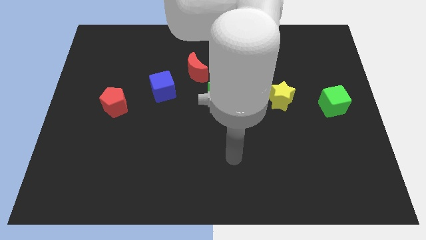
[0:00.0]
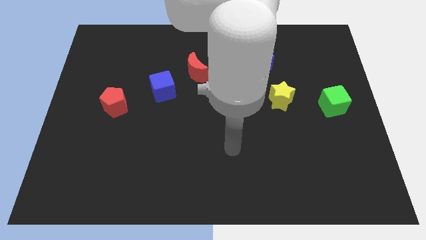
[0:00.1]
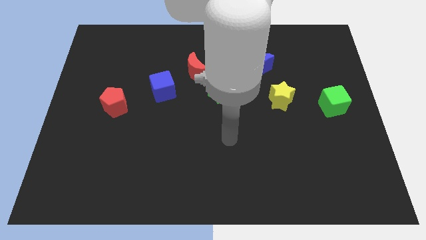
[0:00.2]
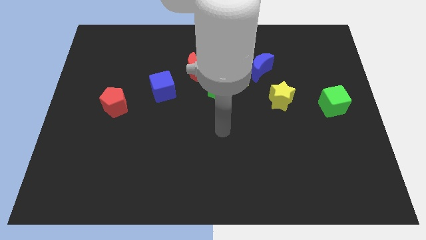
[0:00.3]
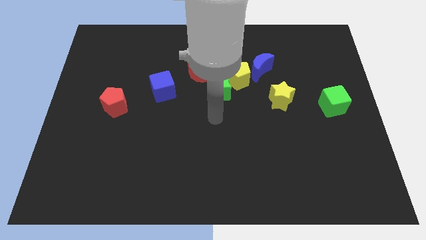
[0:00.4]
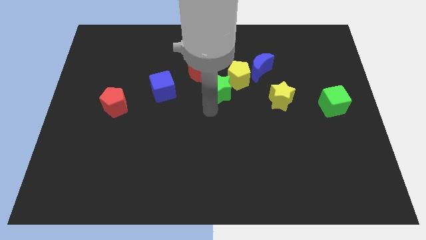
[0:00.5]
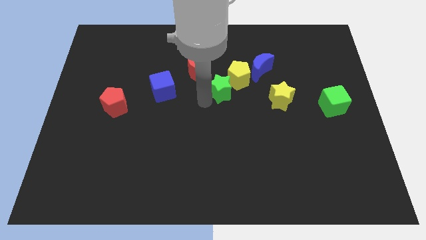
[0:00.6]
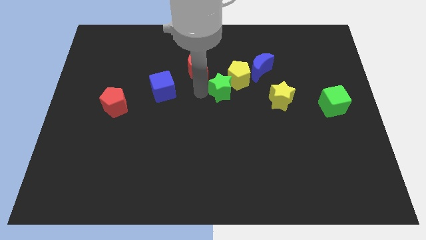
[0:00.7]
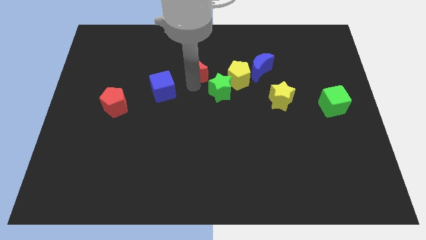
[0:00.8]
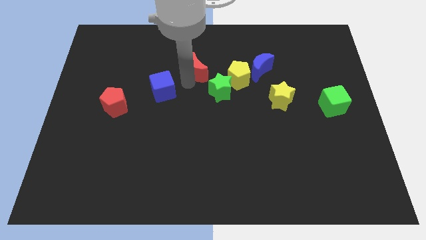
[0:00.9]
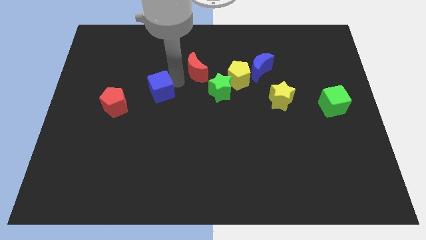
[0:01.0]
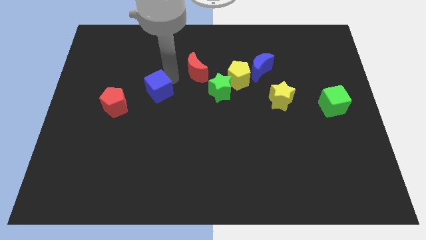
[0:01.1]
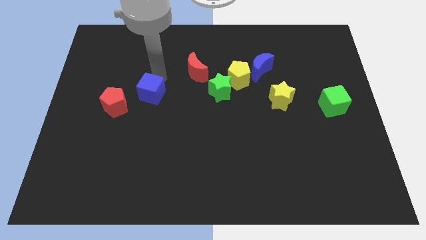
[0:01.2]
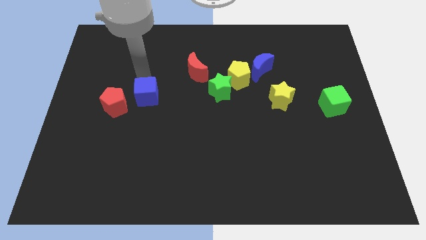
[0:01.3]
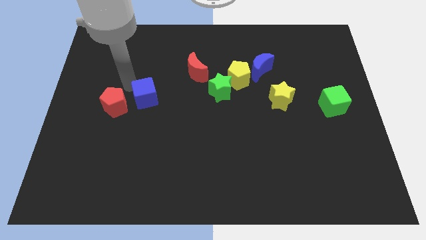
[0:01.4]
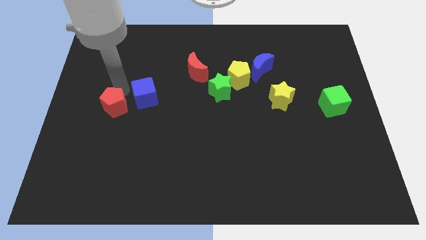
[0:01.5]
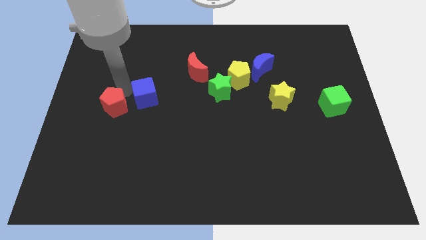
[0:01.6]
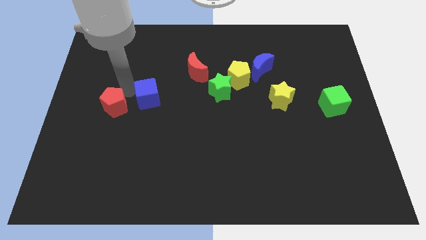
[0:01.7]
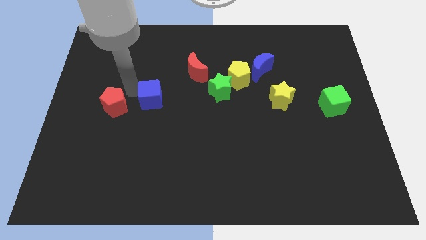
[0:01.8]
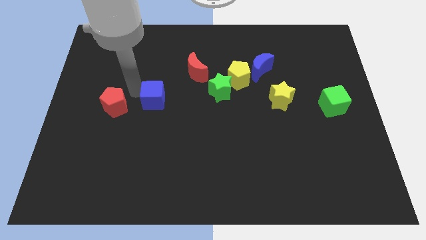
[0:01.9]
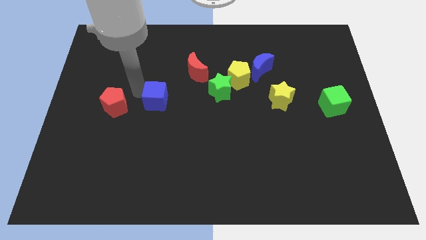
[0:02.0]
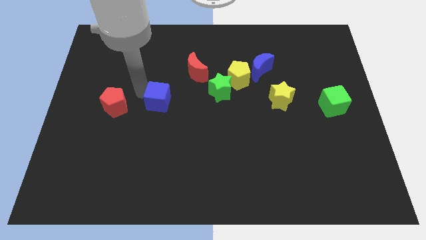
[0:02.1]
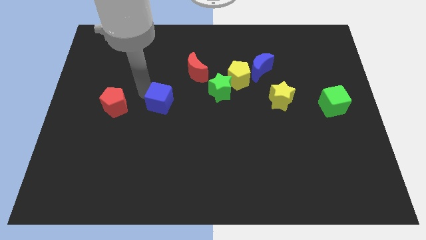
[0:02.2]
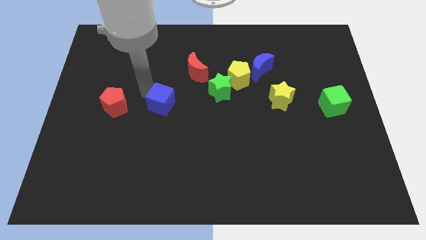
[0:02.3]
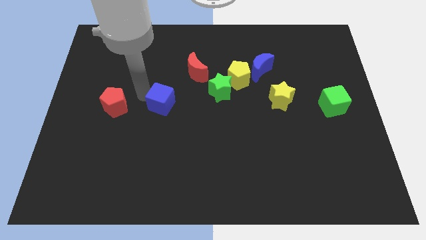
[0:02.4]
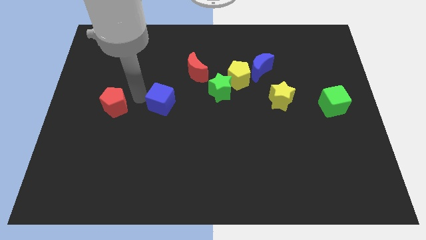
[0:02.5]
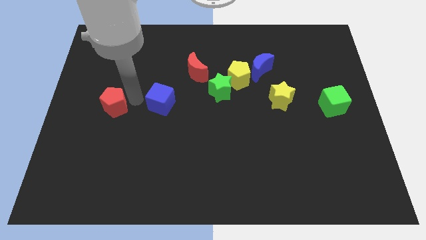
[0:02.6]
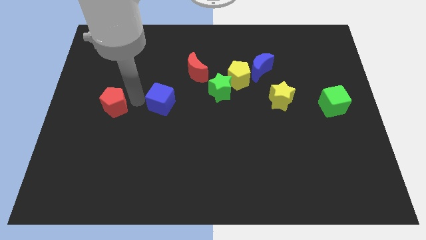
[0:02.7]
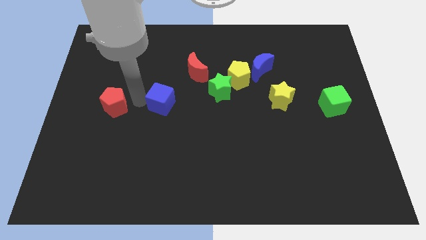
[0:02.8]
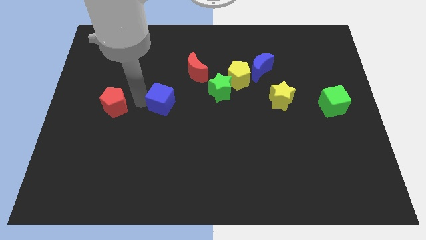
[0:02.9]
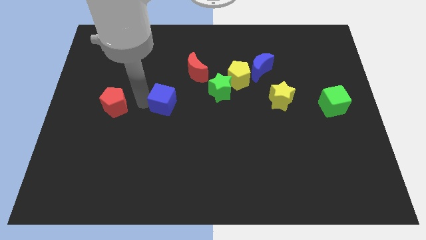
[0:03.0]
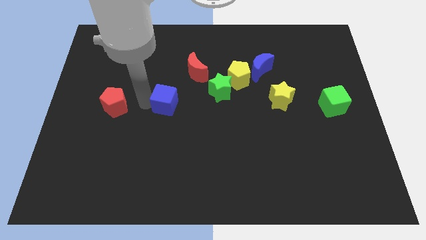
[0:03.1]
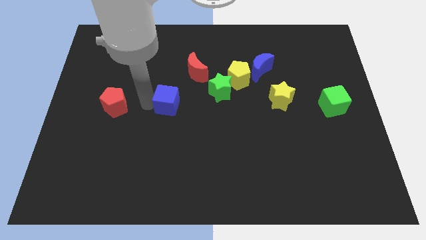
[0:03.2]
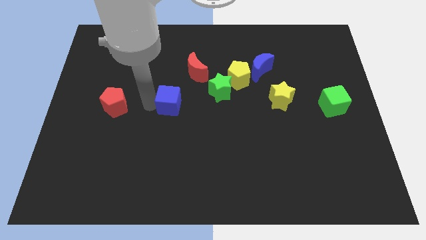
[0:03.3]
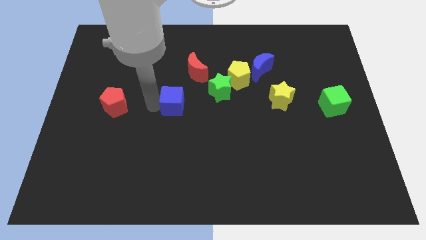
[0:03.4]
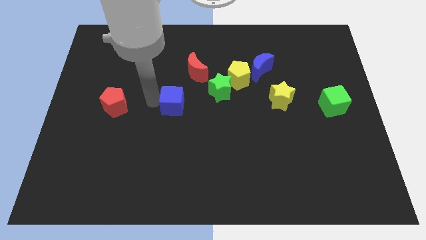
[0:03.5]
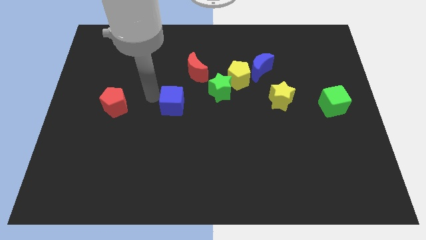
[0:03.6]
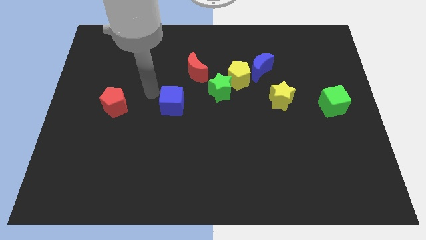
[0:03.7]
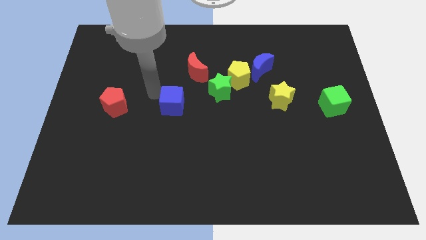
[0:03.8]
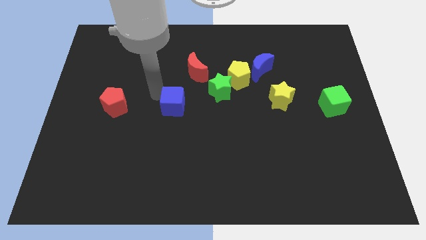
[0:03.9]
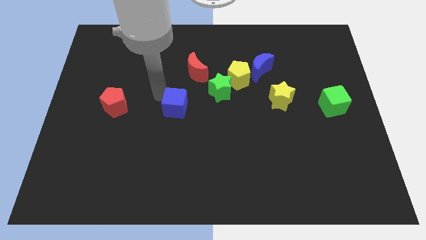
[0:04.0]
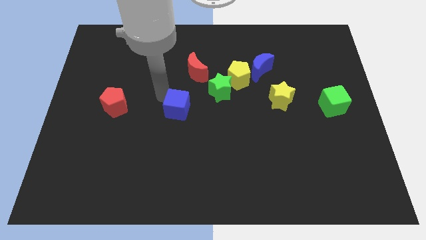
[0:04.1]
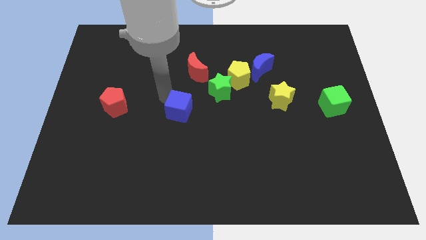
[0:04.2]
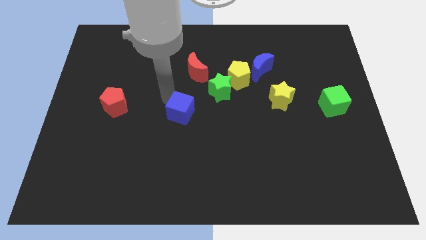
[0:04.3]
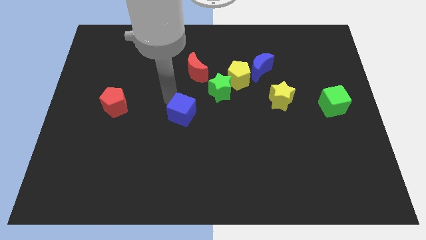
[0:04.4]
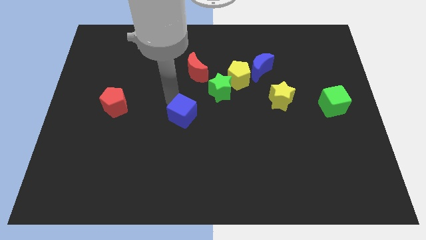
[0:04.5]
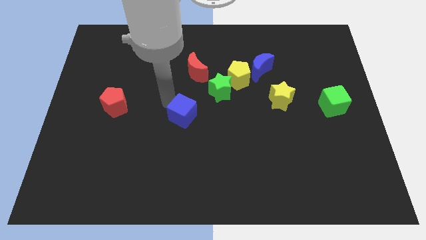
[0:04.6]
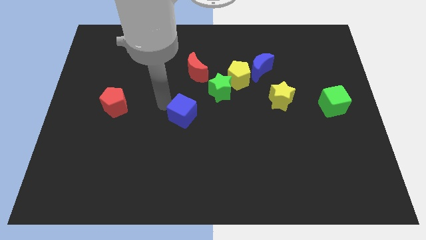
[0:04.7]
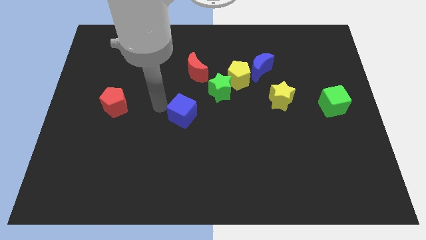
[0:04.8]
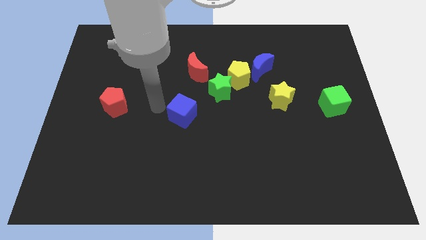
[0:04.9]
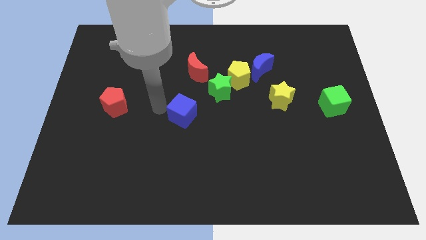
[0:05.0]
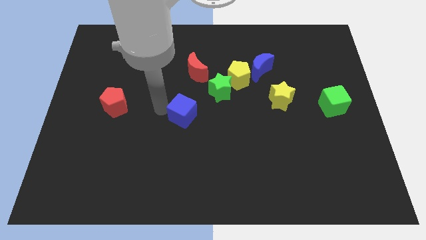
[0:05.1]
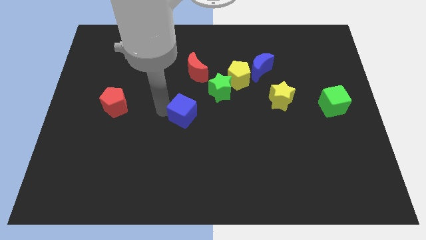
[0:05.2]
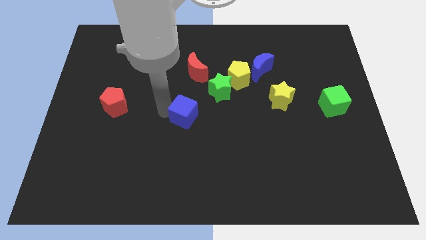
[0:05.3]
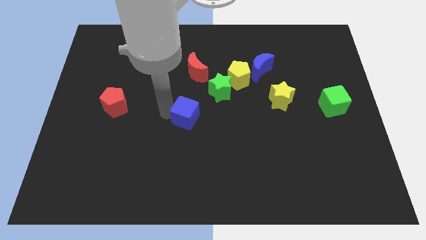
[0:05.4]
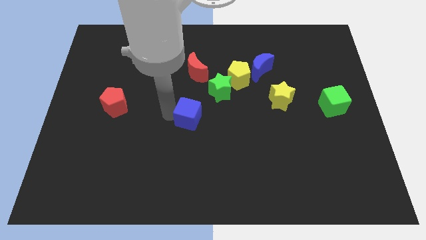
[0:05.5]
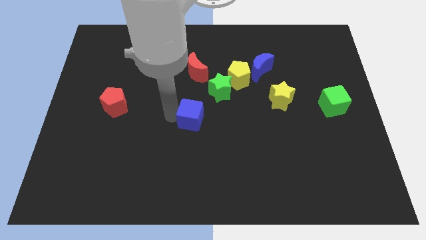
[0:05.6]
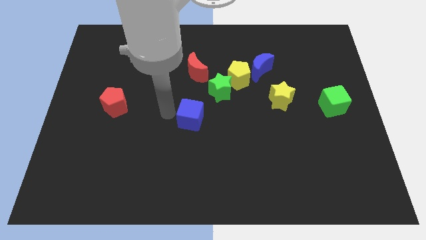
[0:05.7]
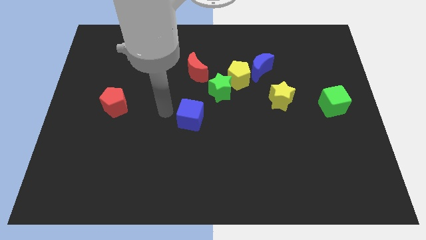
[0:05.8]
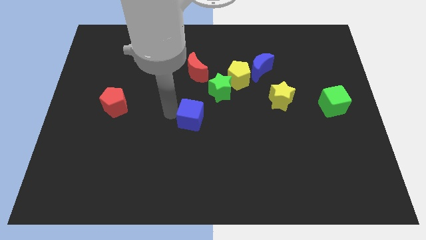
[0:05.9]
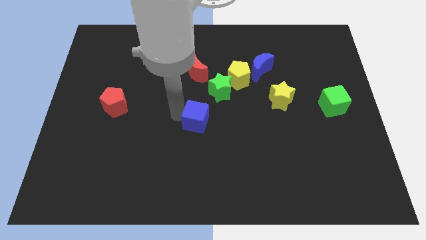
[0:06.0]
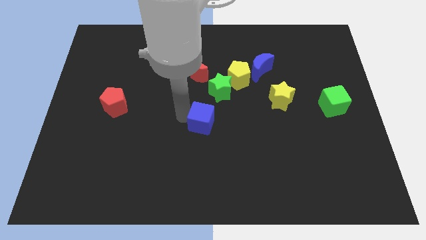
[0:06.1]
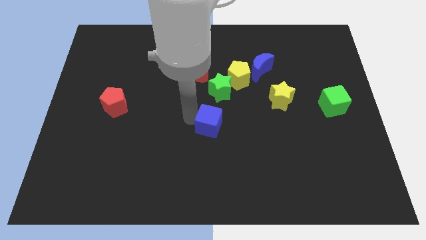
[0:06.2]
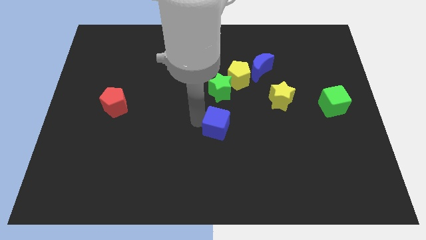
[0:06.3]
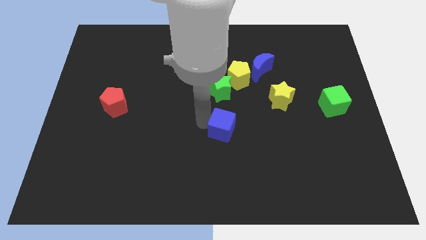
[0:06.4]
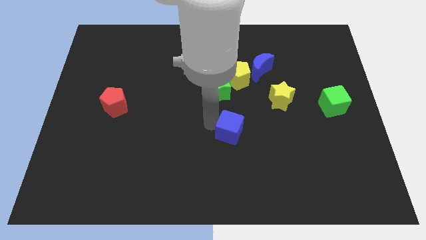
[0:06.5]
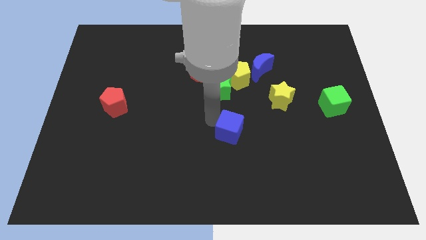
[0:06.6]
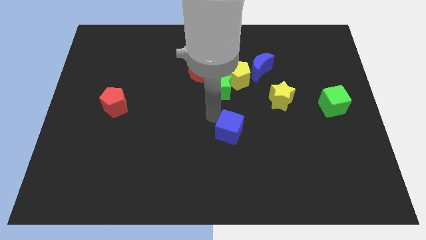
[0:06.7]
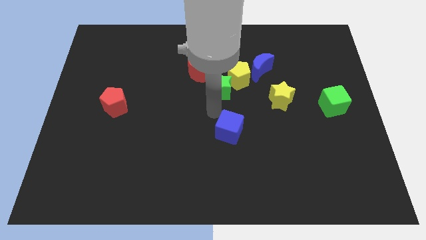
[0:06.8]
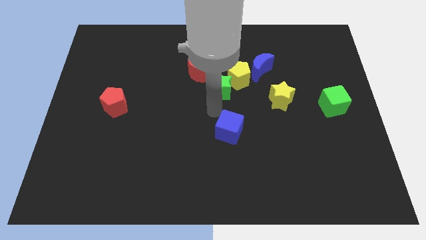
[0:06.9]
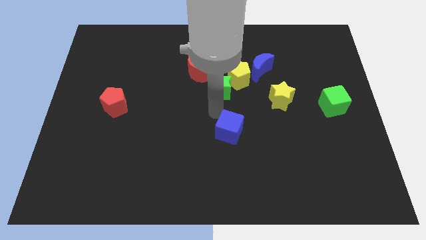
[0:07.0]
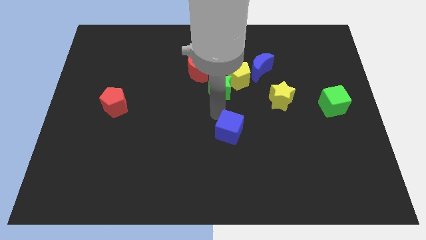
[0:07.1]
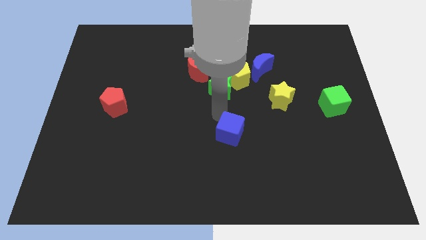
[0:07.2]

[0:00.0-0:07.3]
push the blue cube downwards and then to the right

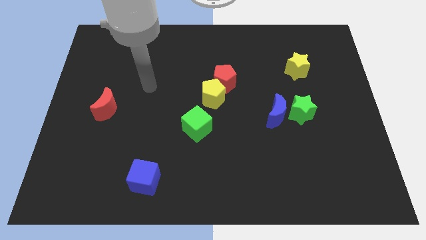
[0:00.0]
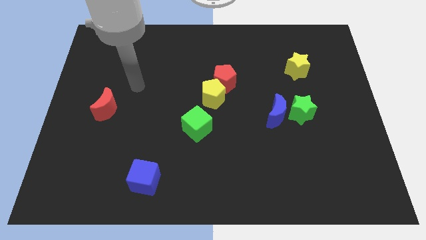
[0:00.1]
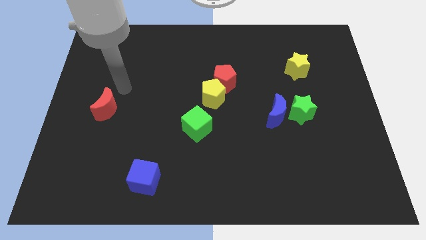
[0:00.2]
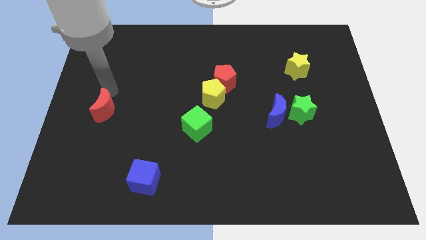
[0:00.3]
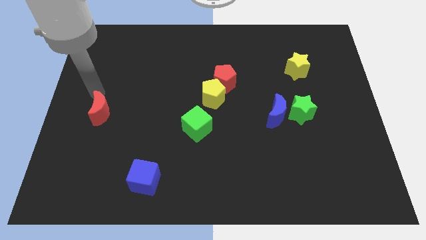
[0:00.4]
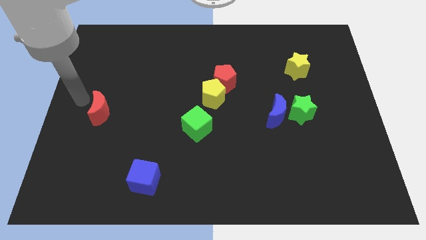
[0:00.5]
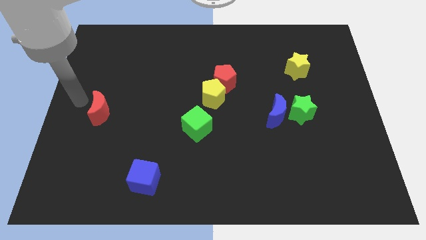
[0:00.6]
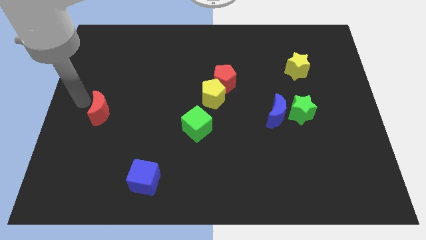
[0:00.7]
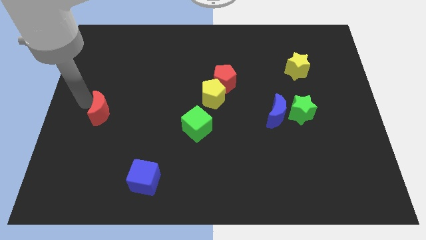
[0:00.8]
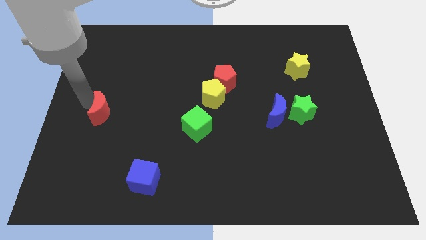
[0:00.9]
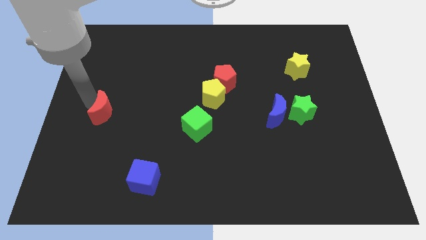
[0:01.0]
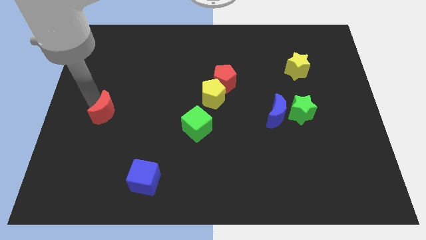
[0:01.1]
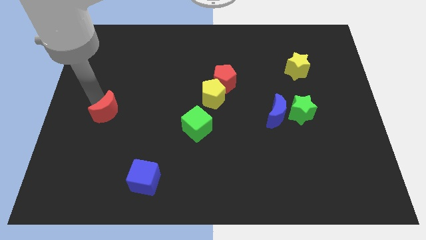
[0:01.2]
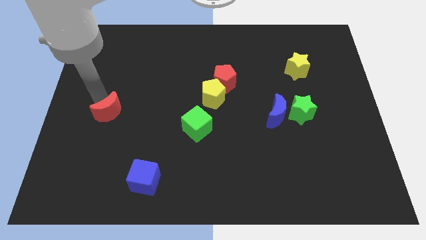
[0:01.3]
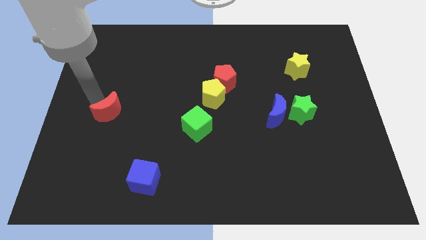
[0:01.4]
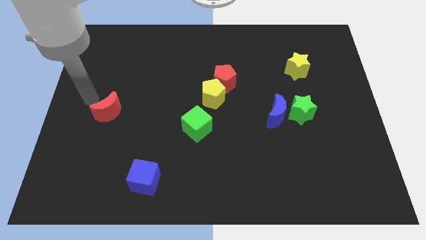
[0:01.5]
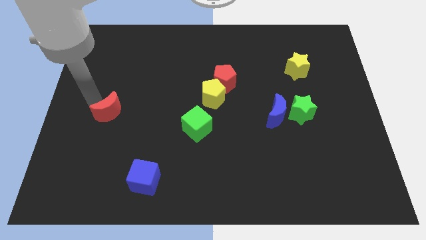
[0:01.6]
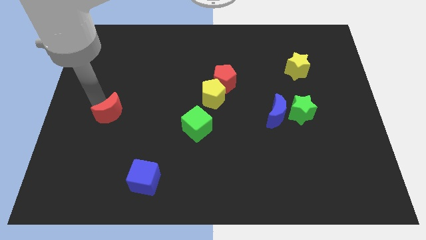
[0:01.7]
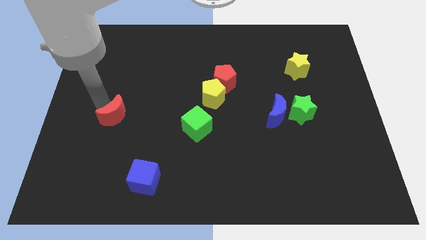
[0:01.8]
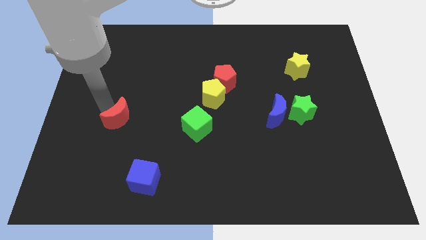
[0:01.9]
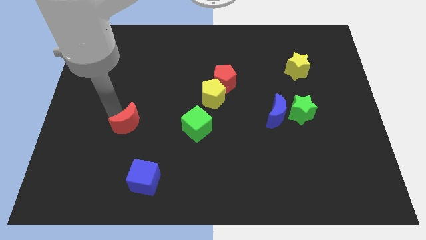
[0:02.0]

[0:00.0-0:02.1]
push the red moon somewhat diagonally downwards and right
